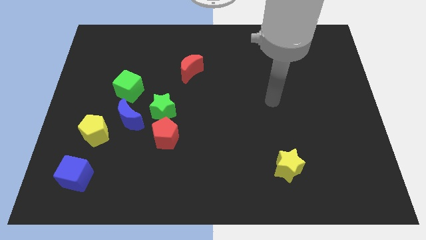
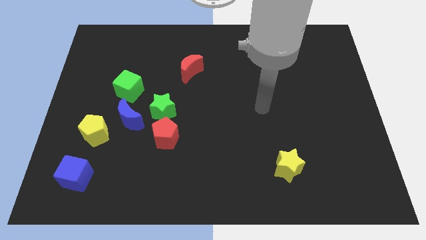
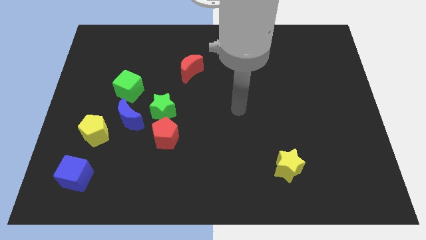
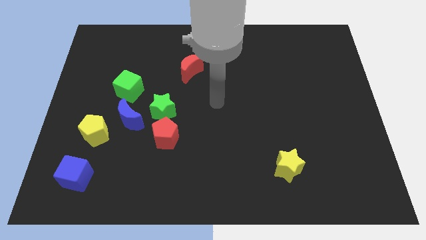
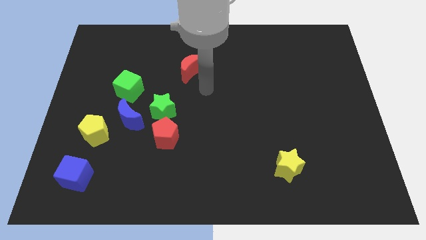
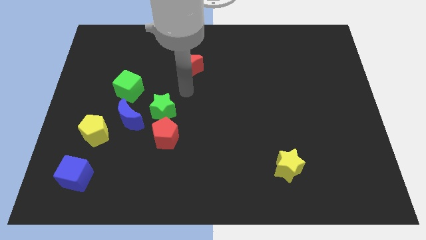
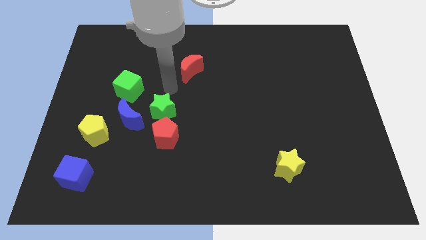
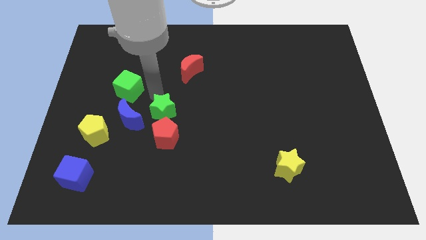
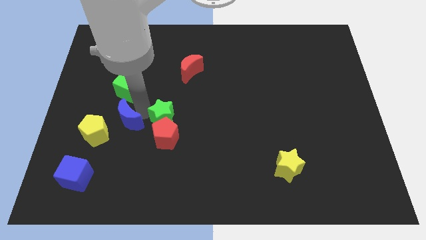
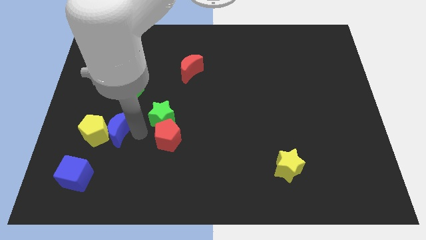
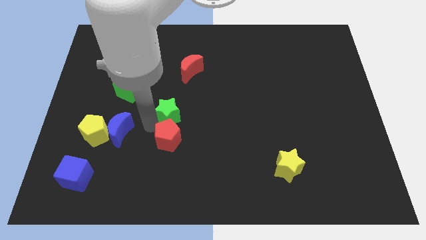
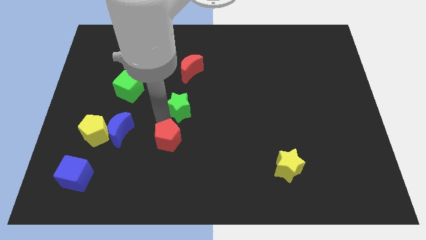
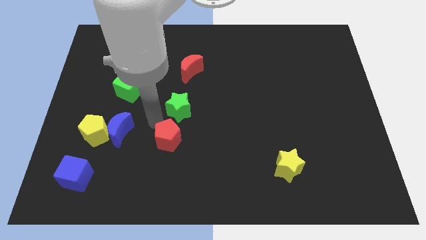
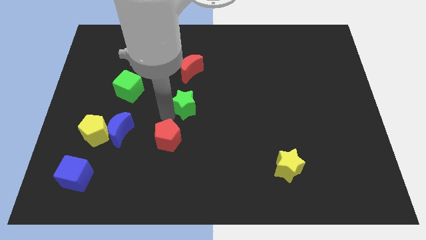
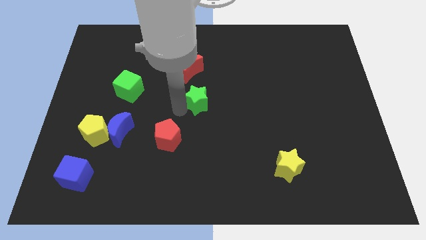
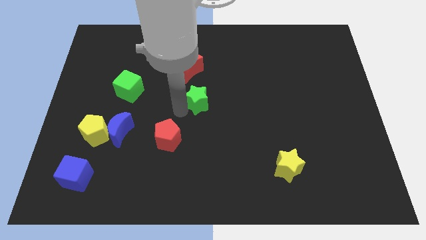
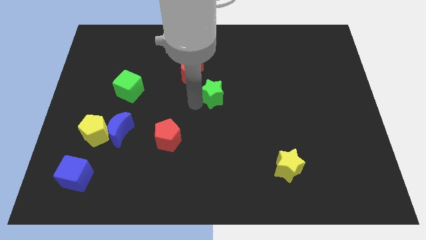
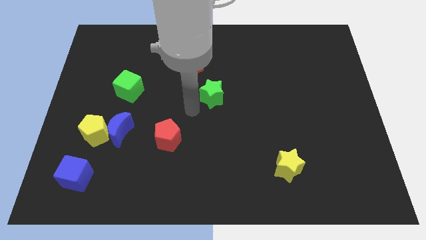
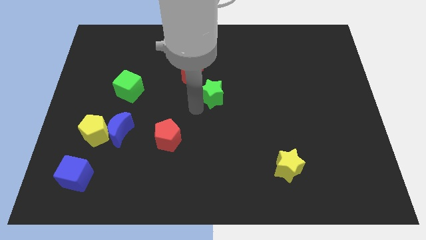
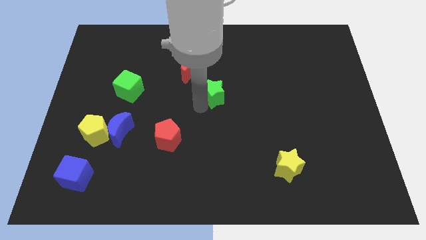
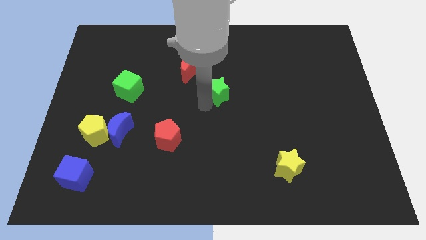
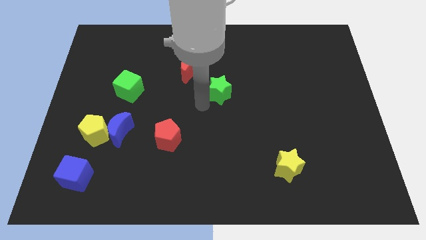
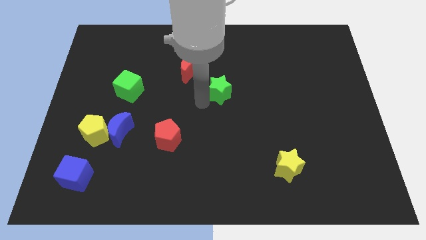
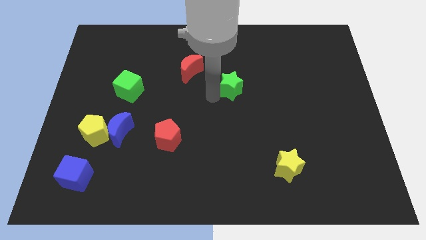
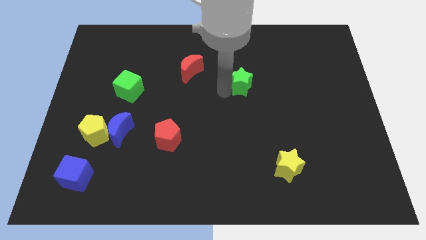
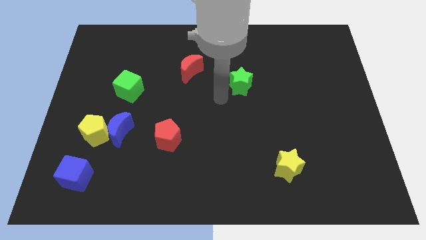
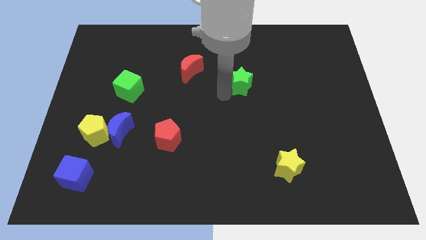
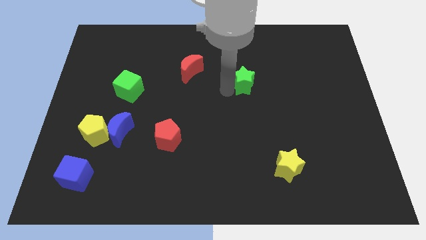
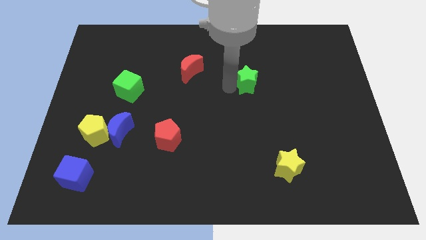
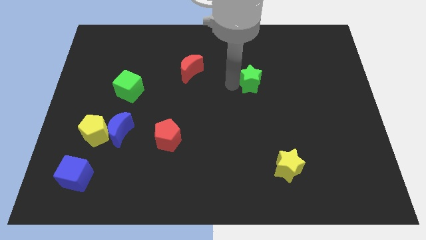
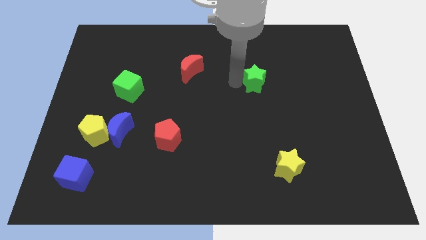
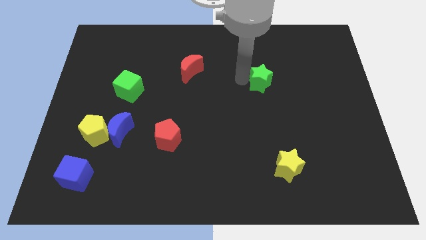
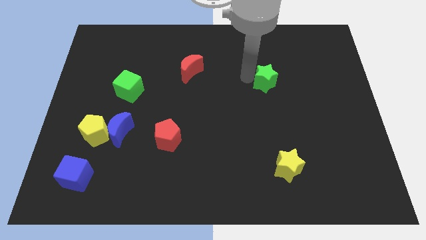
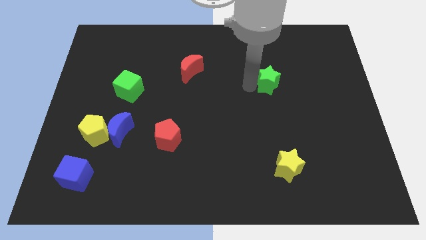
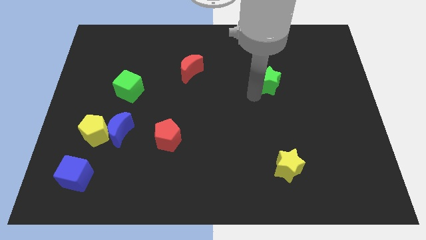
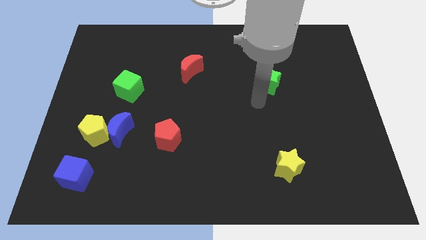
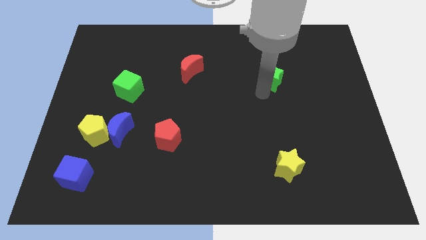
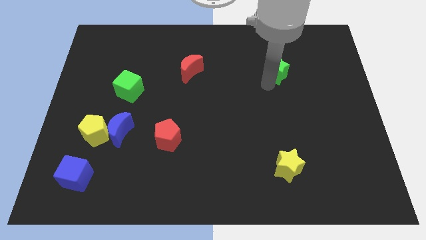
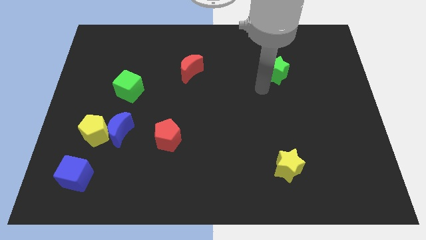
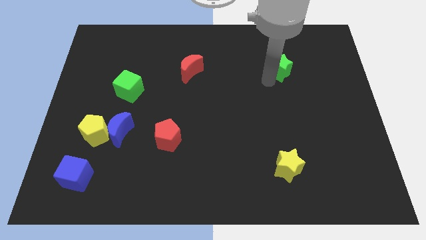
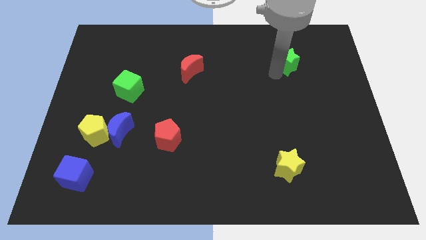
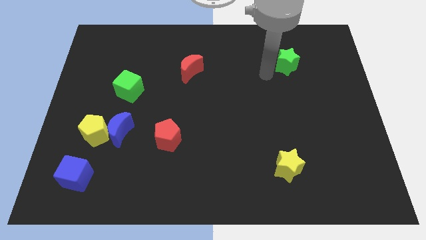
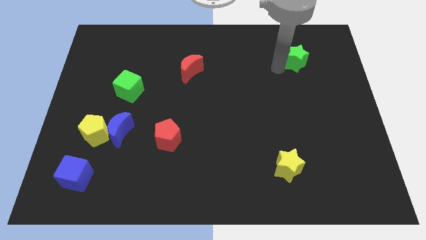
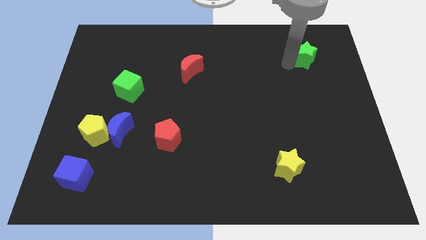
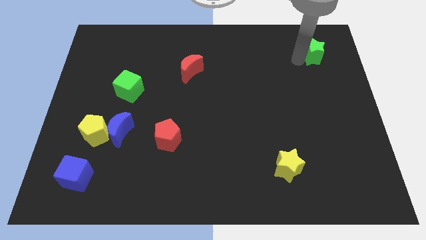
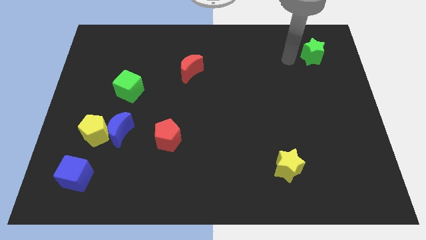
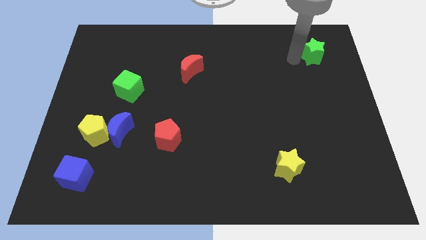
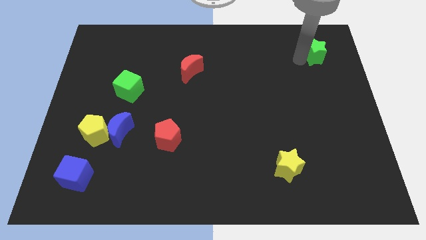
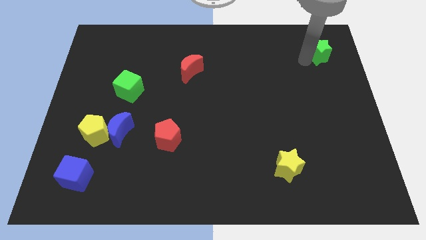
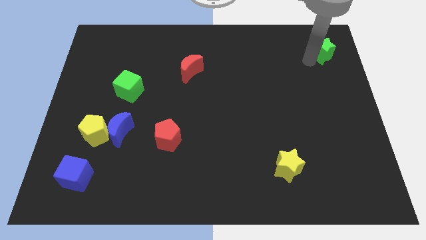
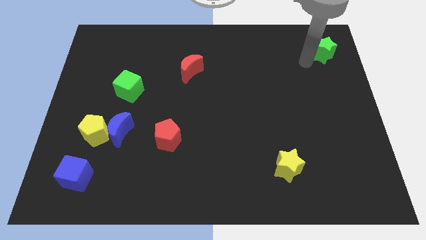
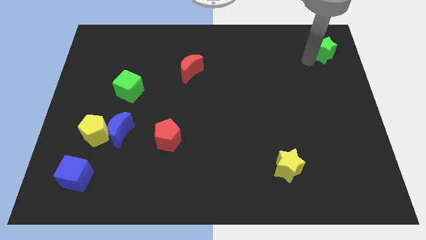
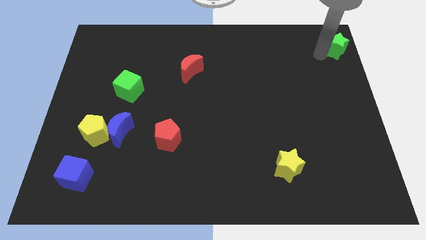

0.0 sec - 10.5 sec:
move the green star to the upper right corner
